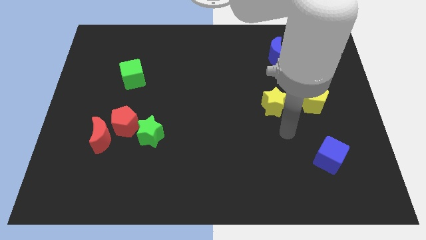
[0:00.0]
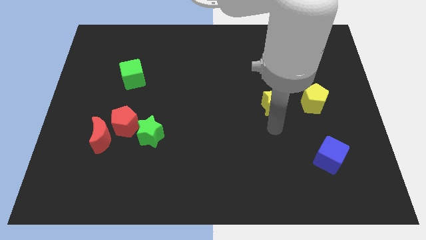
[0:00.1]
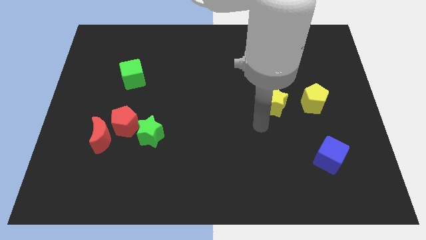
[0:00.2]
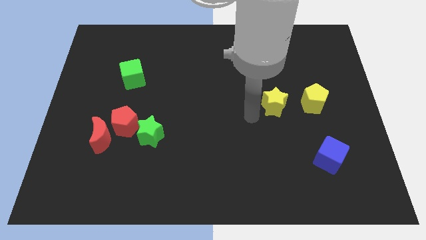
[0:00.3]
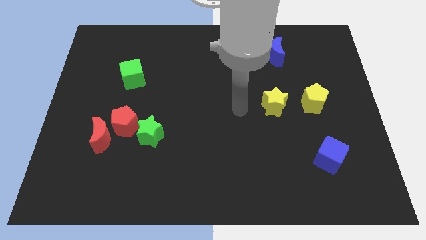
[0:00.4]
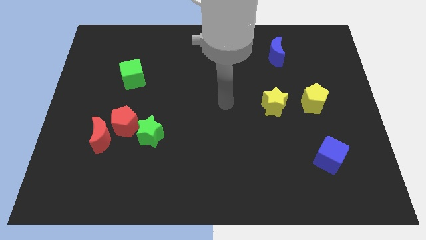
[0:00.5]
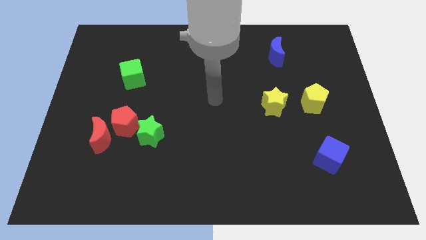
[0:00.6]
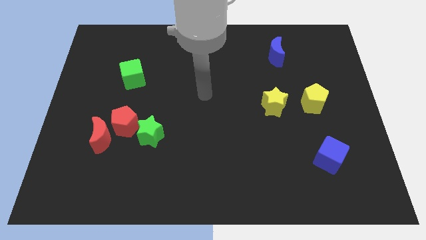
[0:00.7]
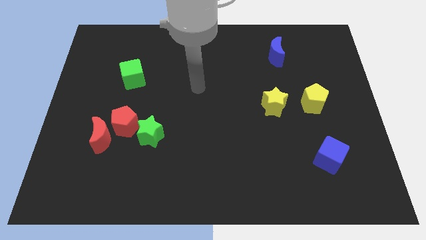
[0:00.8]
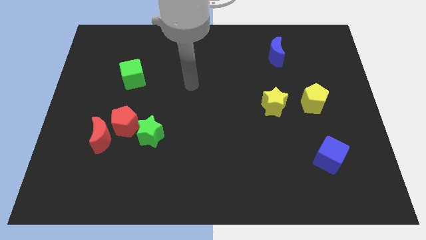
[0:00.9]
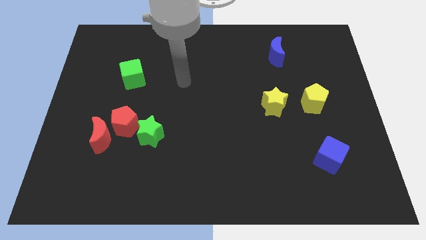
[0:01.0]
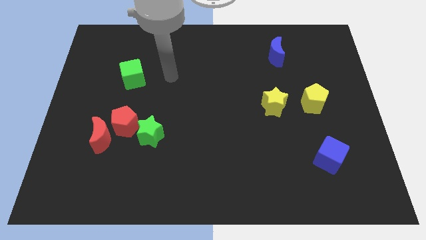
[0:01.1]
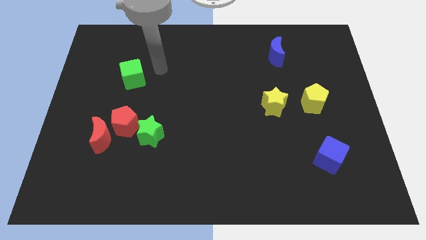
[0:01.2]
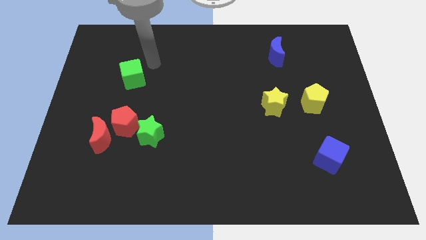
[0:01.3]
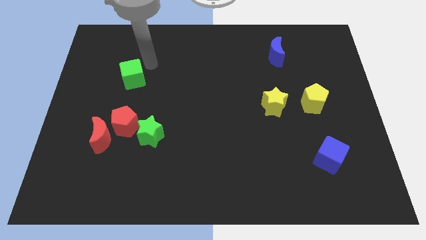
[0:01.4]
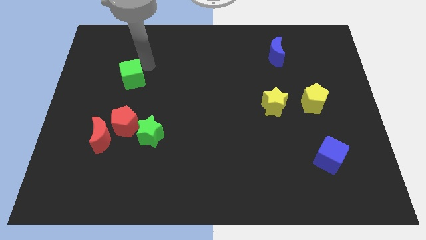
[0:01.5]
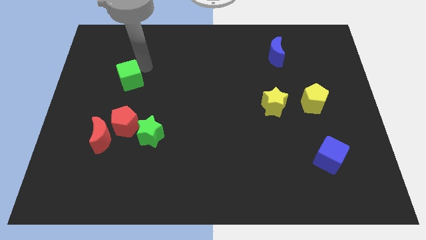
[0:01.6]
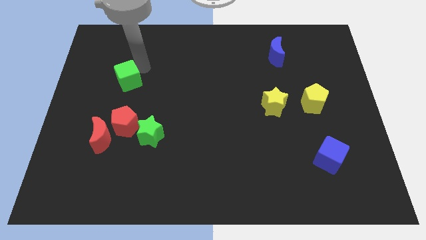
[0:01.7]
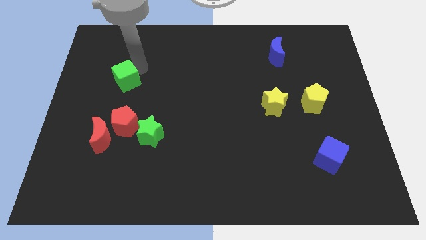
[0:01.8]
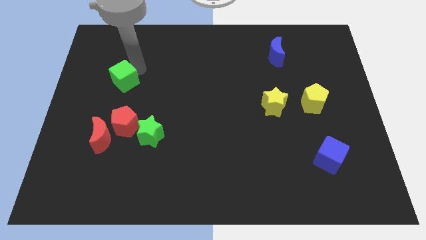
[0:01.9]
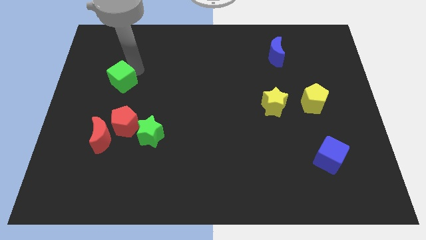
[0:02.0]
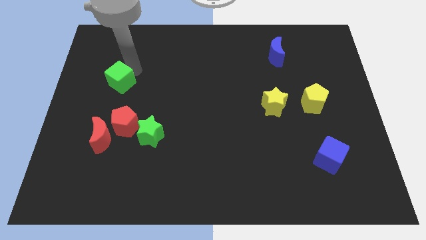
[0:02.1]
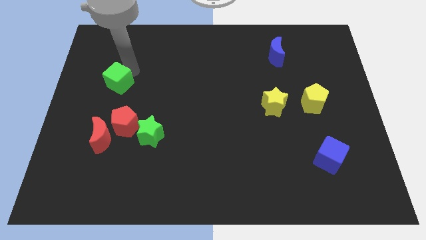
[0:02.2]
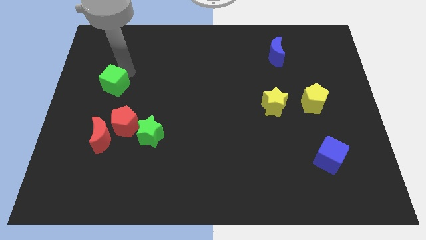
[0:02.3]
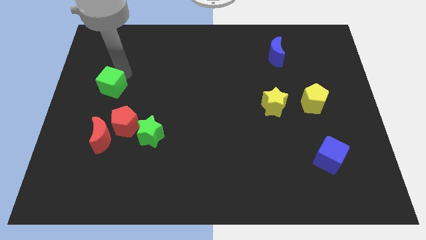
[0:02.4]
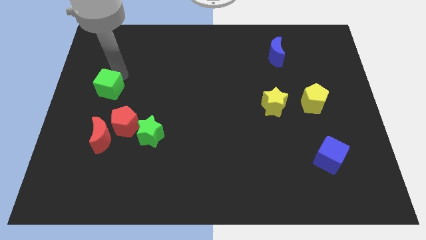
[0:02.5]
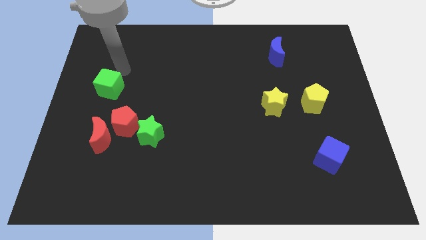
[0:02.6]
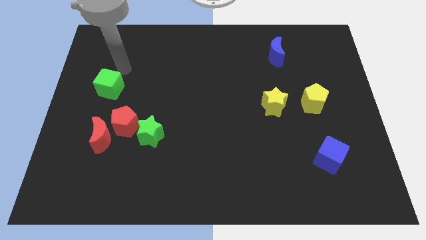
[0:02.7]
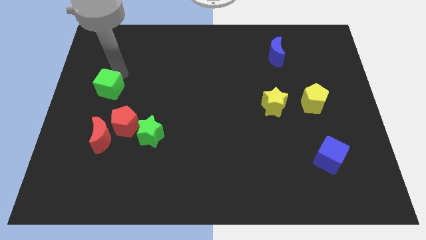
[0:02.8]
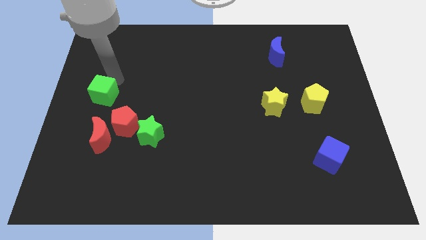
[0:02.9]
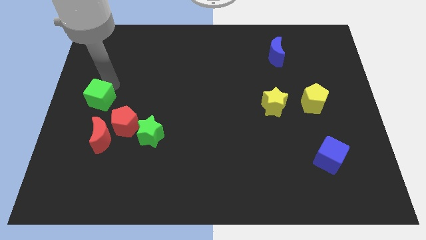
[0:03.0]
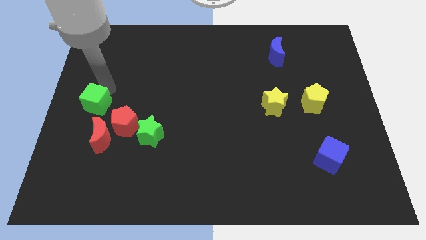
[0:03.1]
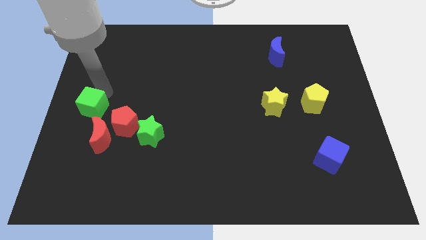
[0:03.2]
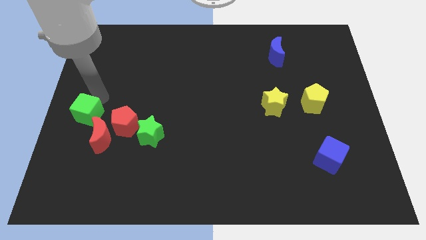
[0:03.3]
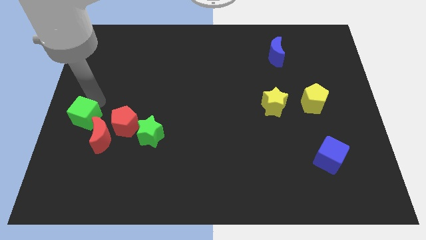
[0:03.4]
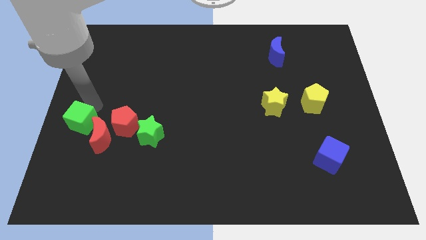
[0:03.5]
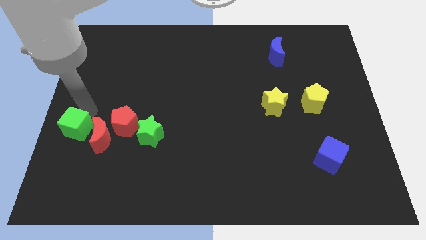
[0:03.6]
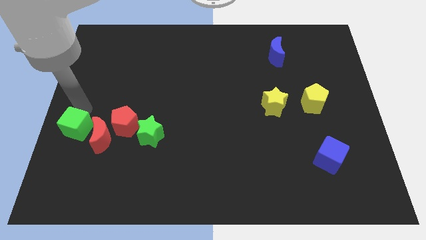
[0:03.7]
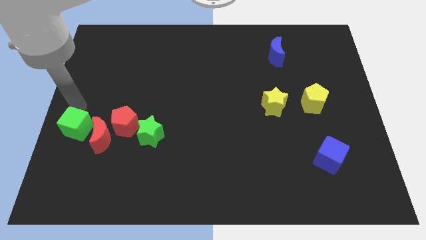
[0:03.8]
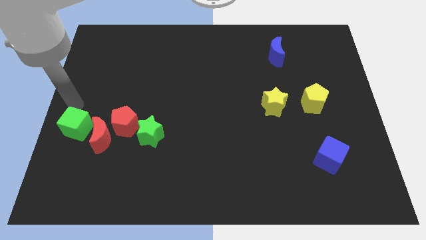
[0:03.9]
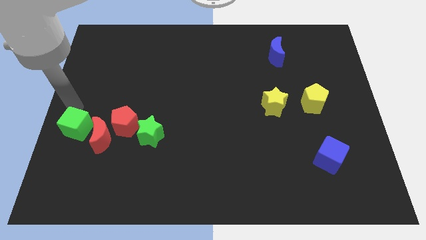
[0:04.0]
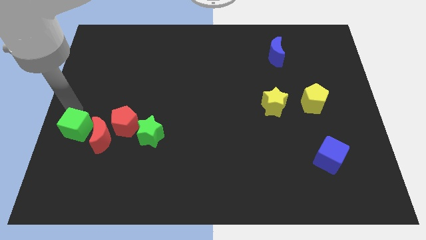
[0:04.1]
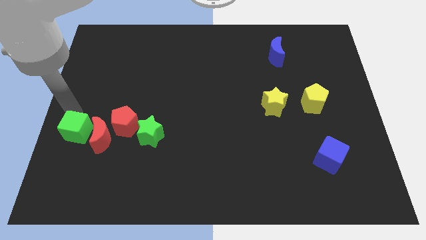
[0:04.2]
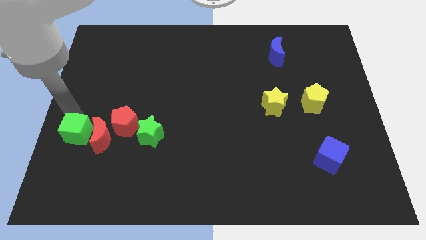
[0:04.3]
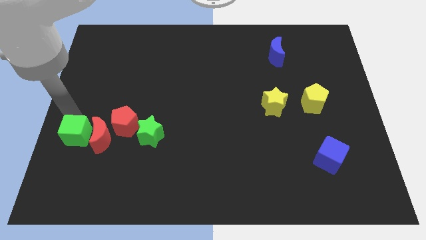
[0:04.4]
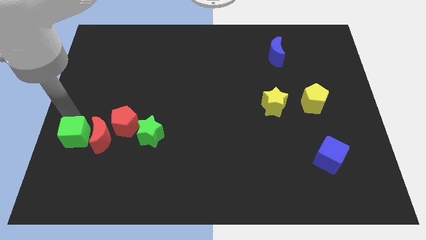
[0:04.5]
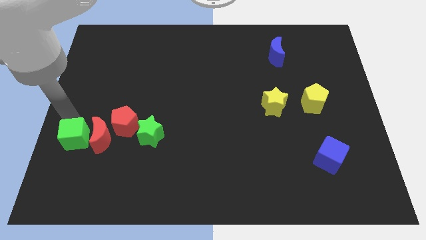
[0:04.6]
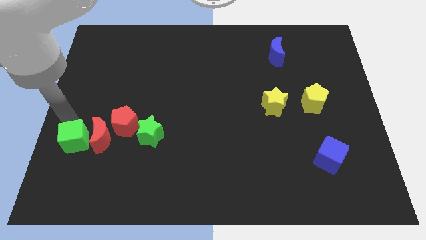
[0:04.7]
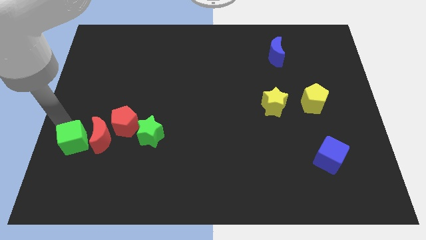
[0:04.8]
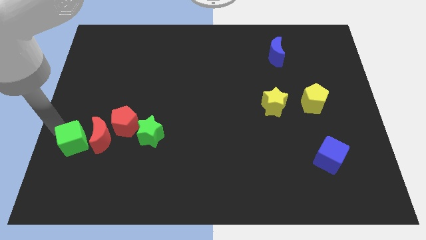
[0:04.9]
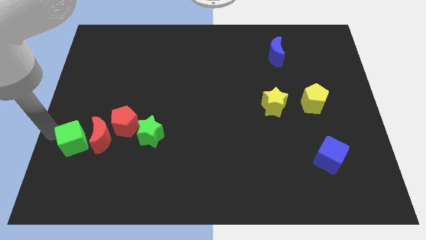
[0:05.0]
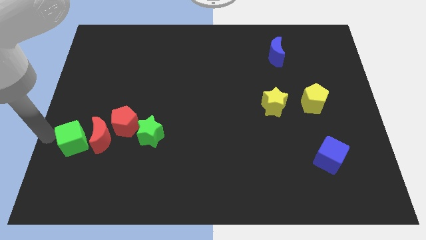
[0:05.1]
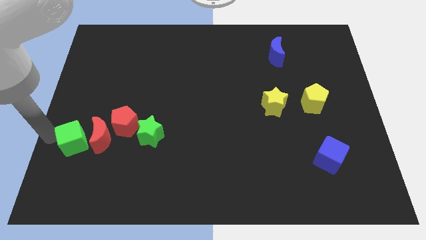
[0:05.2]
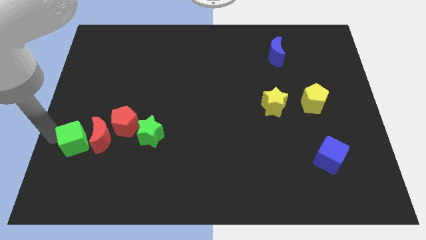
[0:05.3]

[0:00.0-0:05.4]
put the green cube to the bottom left of the red pentagon

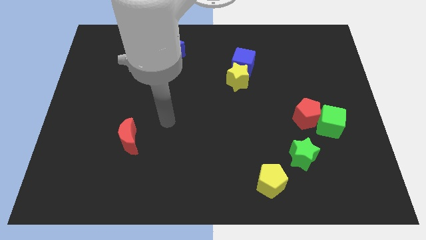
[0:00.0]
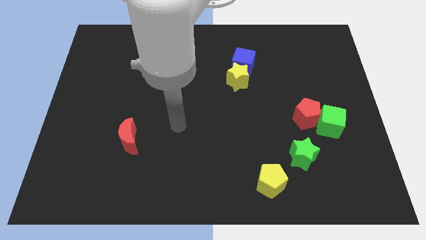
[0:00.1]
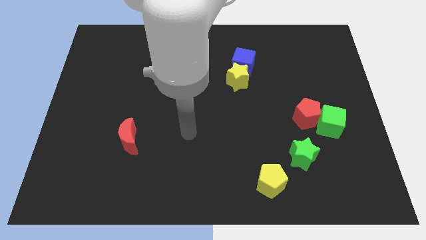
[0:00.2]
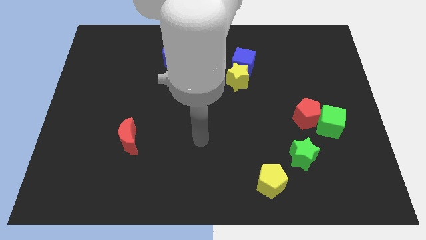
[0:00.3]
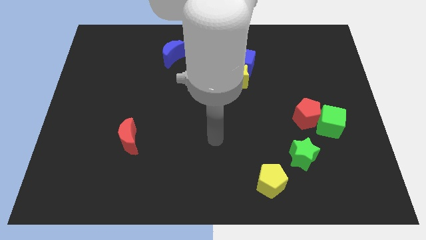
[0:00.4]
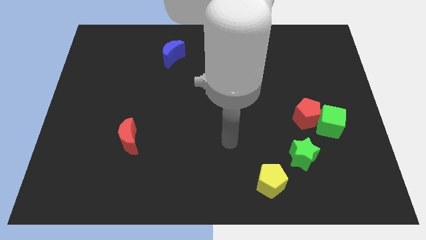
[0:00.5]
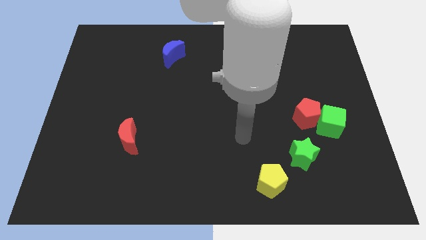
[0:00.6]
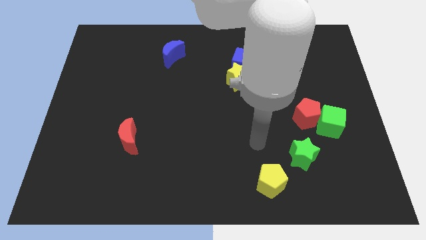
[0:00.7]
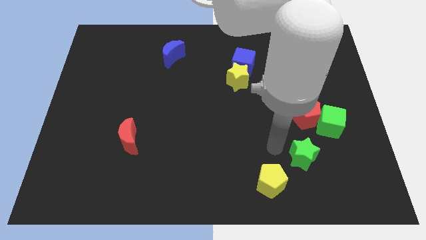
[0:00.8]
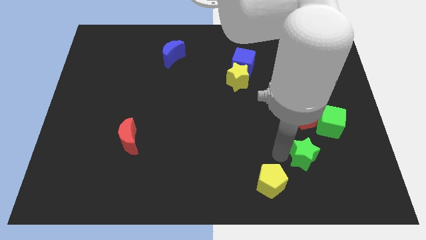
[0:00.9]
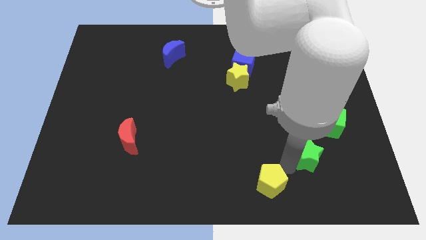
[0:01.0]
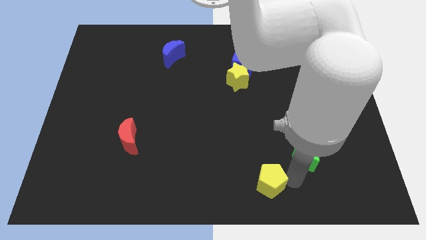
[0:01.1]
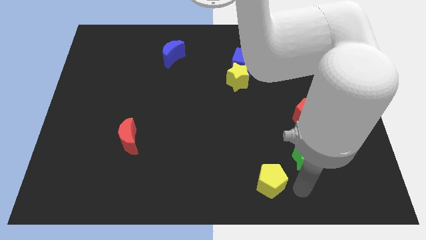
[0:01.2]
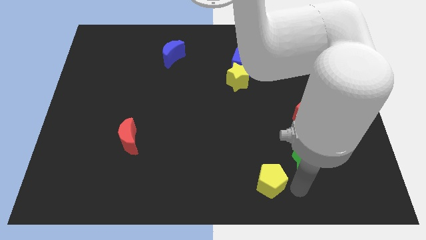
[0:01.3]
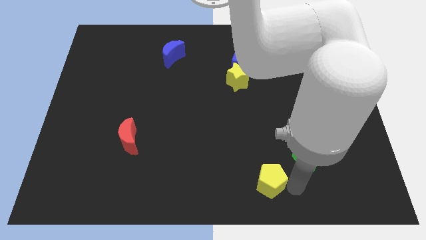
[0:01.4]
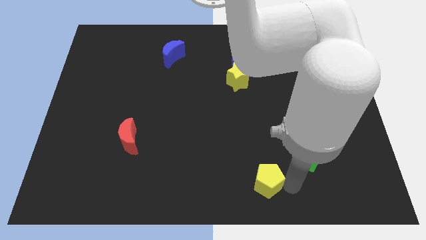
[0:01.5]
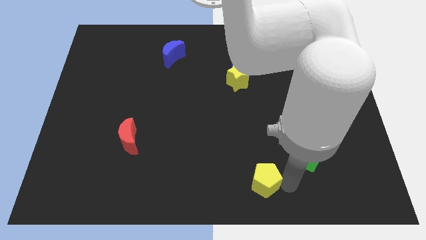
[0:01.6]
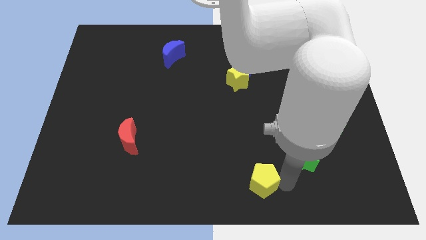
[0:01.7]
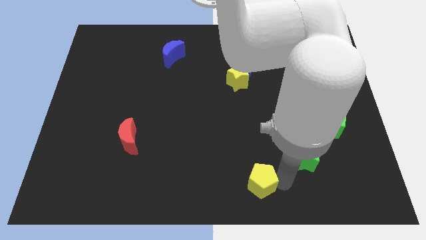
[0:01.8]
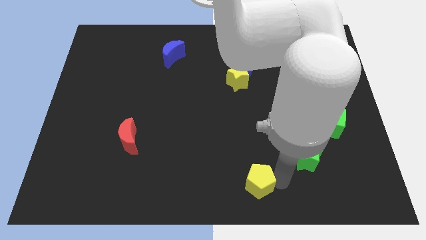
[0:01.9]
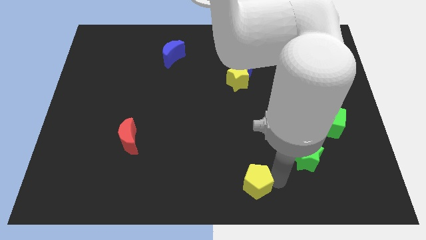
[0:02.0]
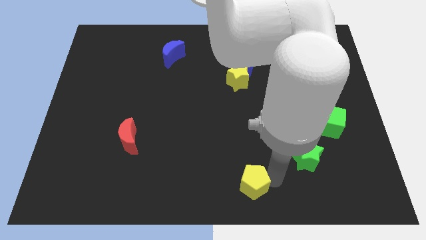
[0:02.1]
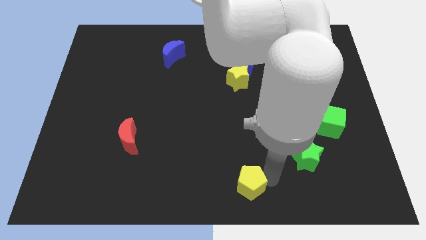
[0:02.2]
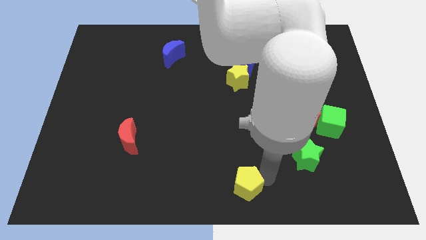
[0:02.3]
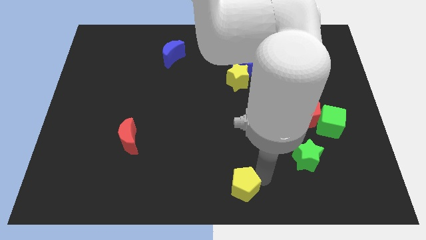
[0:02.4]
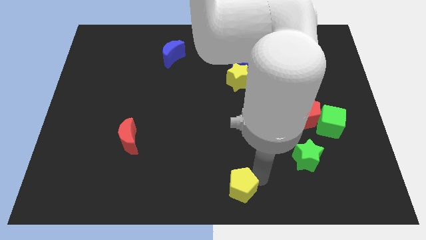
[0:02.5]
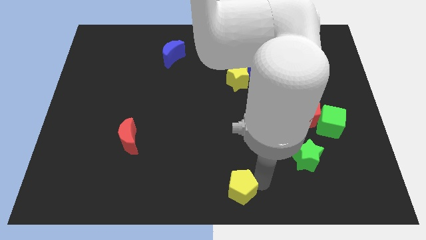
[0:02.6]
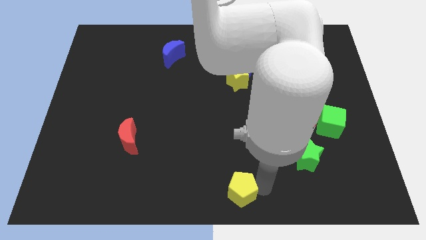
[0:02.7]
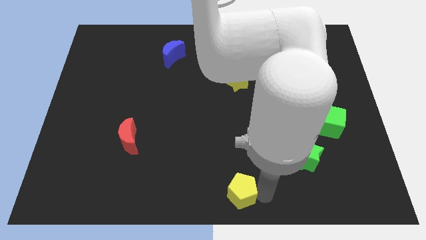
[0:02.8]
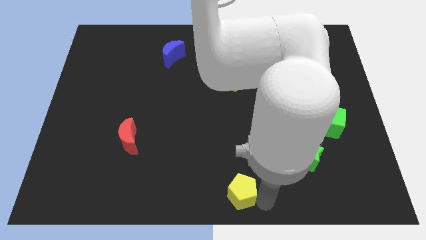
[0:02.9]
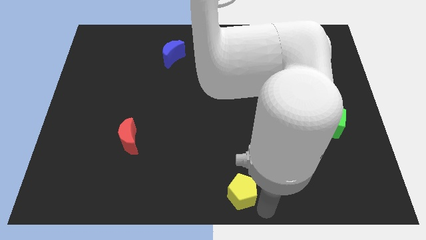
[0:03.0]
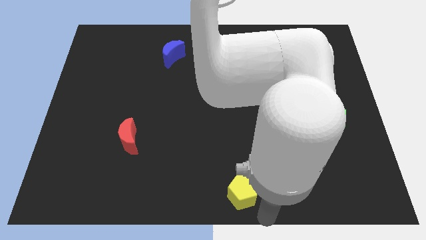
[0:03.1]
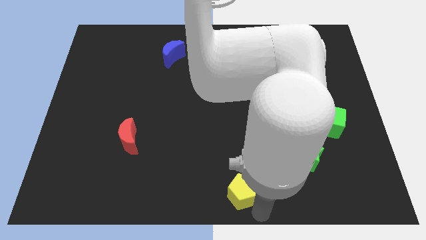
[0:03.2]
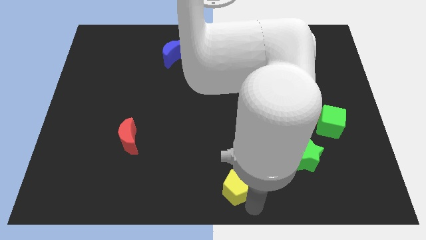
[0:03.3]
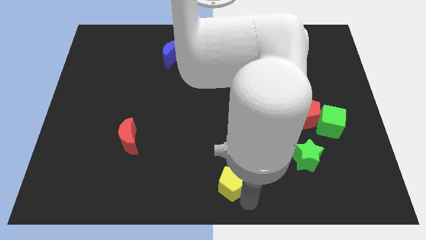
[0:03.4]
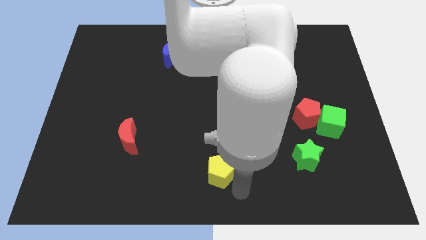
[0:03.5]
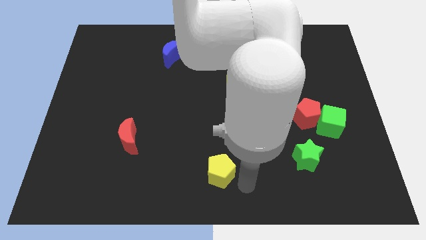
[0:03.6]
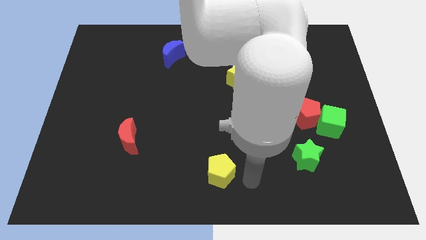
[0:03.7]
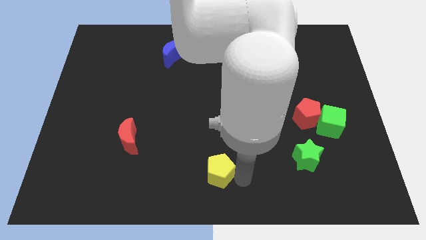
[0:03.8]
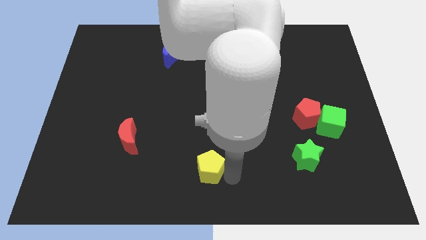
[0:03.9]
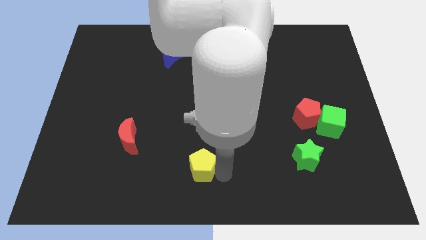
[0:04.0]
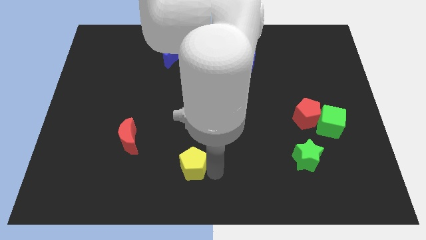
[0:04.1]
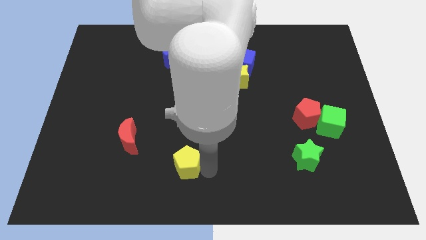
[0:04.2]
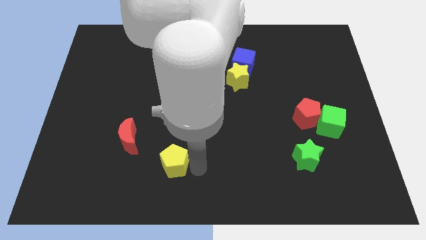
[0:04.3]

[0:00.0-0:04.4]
slide the yellow pentagon to the bottom right of the red moon
